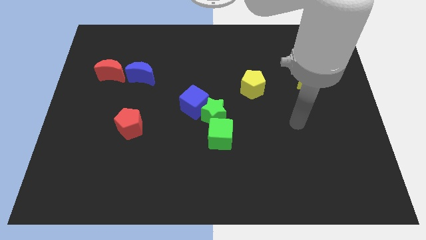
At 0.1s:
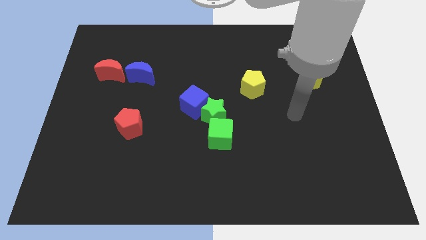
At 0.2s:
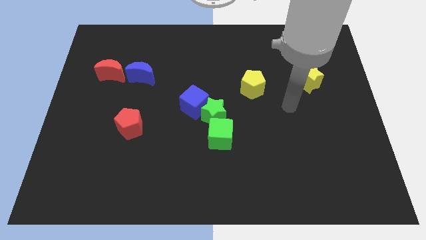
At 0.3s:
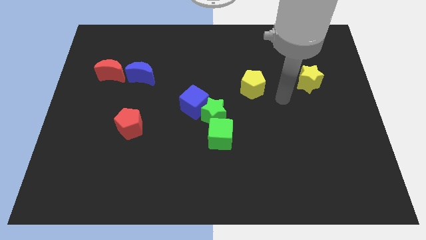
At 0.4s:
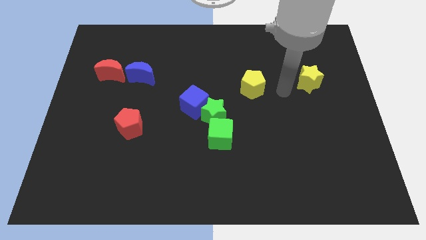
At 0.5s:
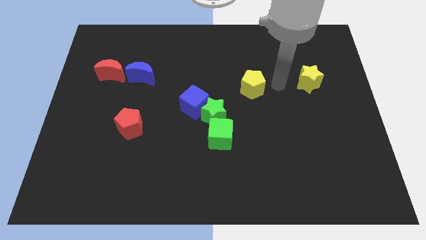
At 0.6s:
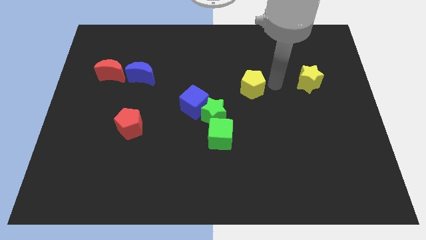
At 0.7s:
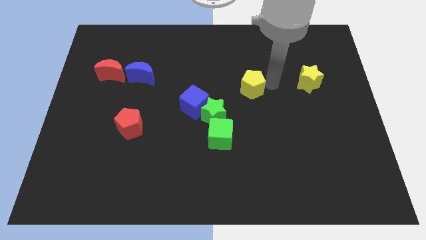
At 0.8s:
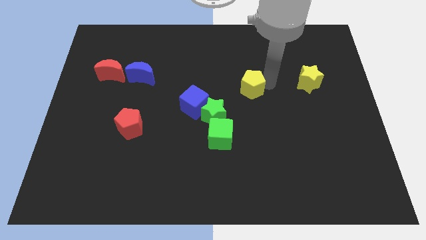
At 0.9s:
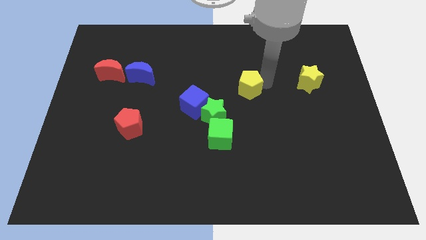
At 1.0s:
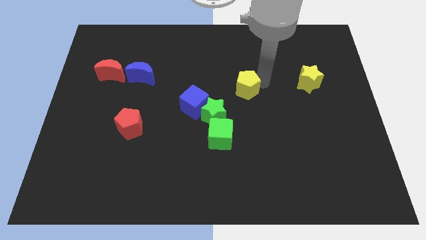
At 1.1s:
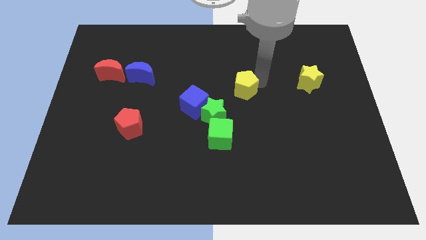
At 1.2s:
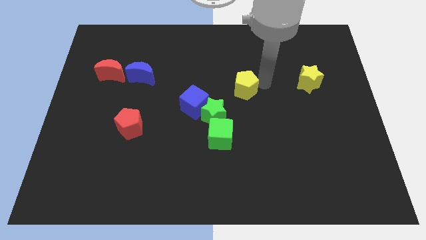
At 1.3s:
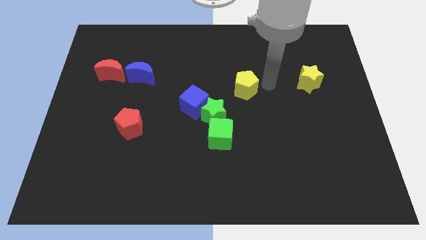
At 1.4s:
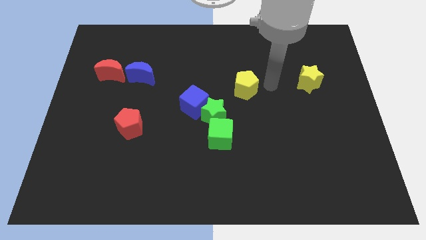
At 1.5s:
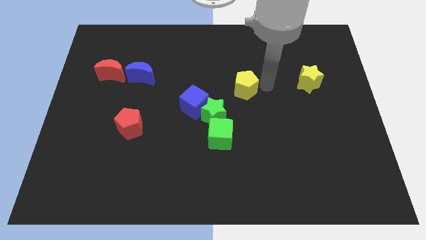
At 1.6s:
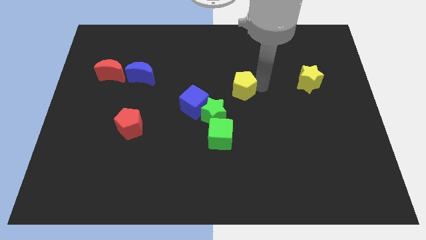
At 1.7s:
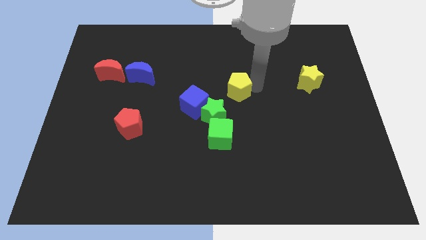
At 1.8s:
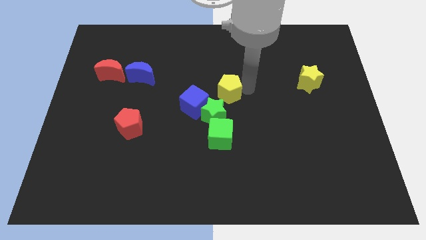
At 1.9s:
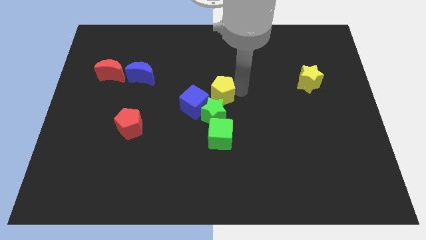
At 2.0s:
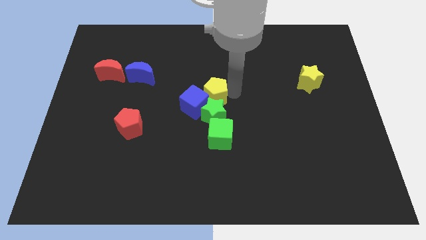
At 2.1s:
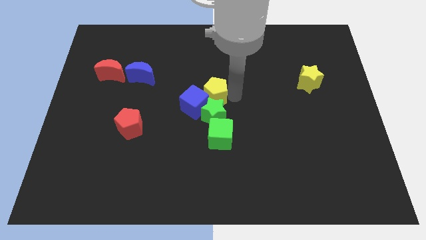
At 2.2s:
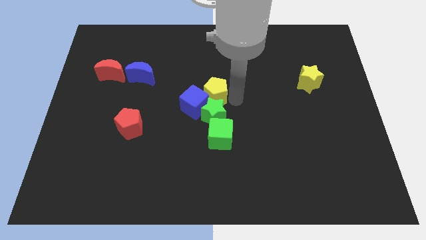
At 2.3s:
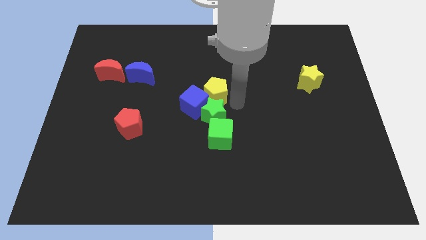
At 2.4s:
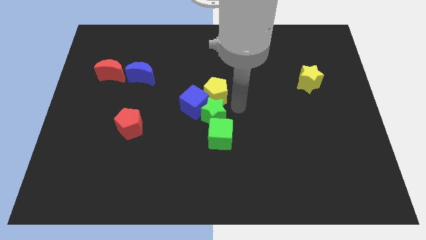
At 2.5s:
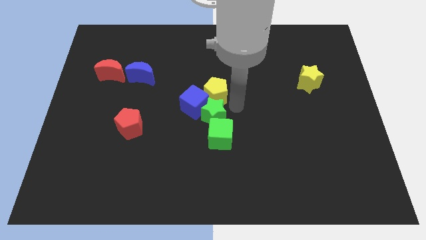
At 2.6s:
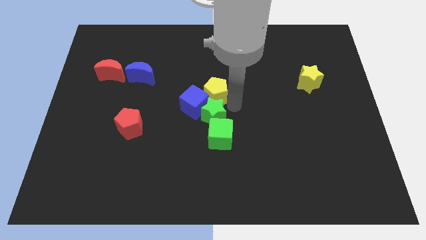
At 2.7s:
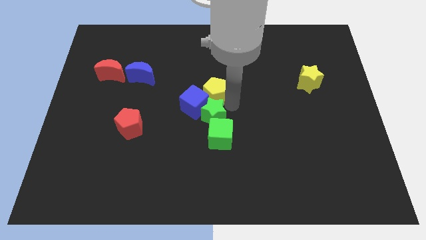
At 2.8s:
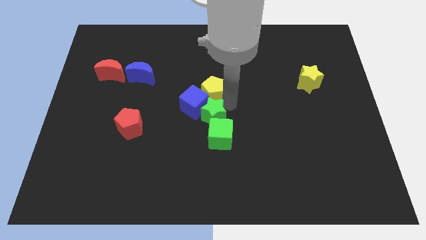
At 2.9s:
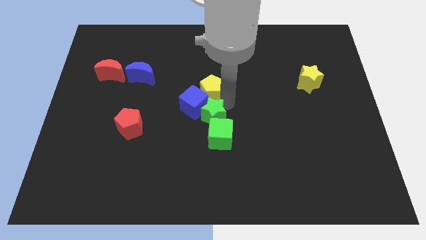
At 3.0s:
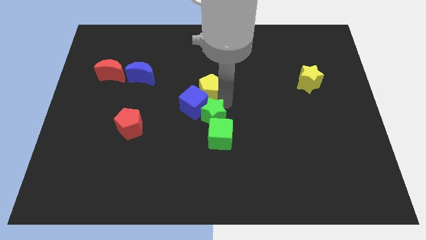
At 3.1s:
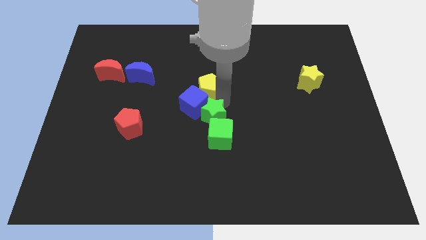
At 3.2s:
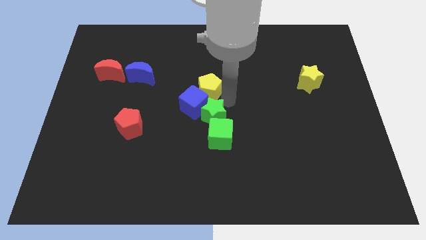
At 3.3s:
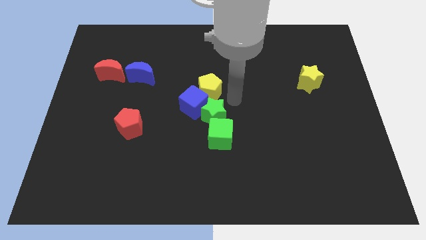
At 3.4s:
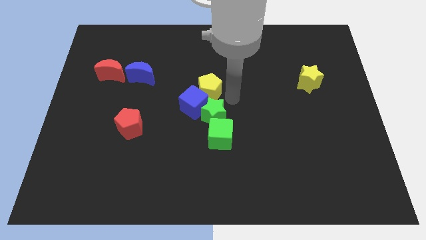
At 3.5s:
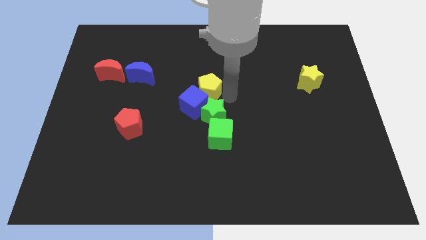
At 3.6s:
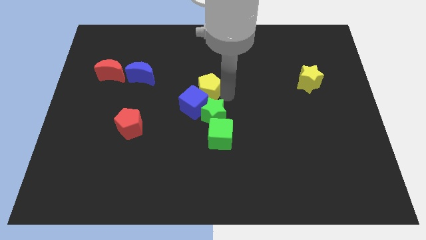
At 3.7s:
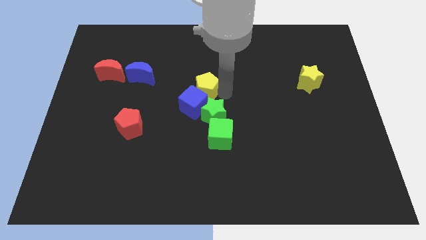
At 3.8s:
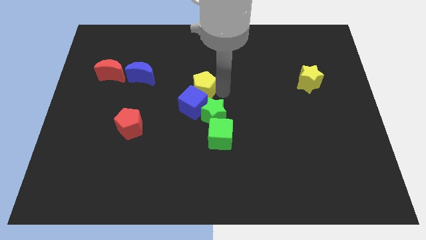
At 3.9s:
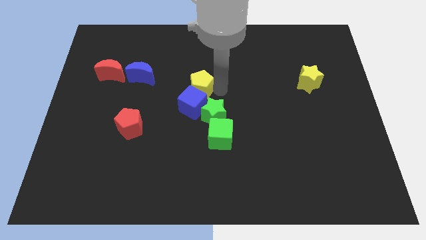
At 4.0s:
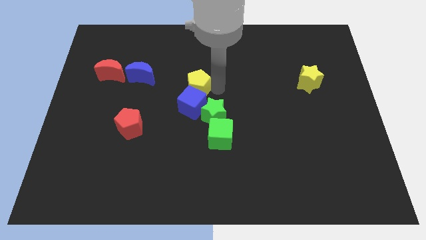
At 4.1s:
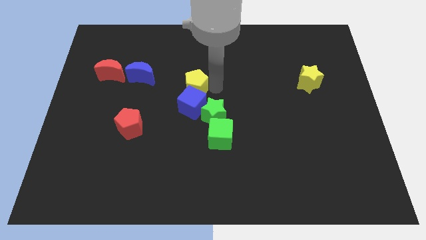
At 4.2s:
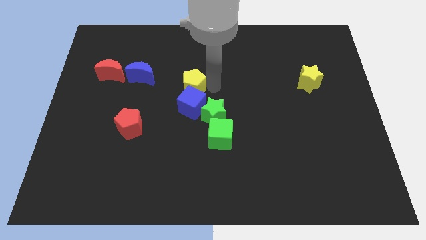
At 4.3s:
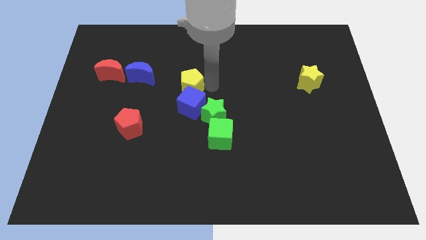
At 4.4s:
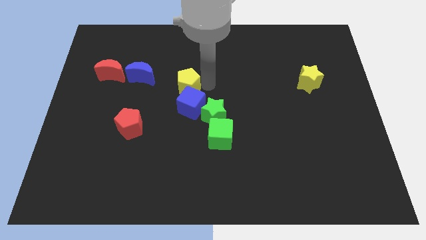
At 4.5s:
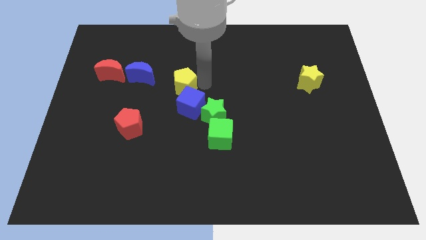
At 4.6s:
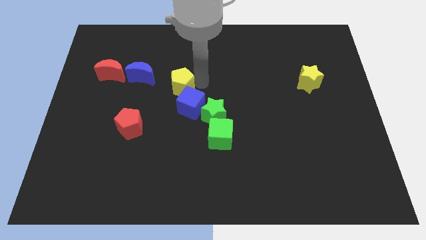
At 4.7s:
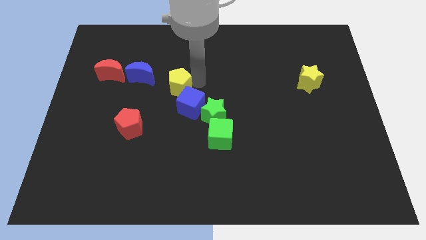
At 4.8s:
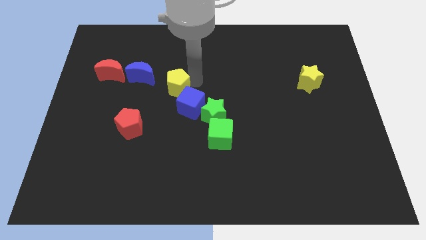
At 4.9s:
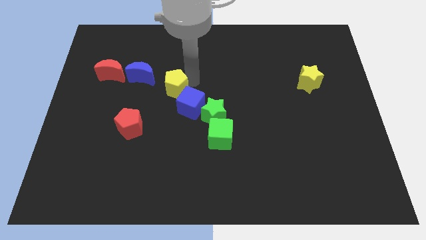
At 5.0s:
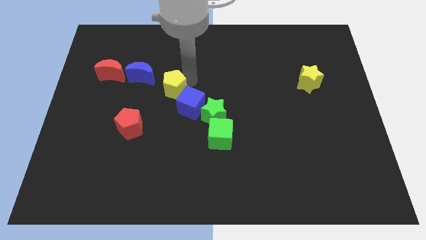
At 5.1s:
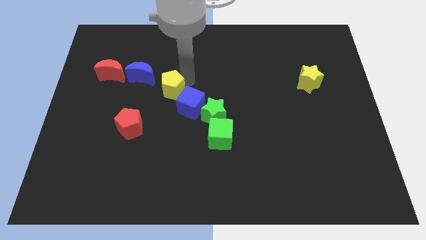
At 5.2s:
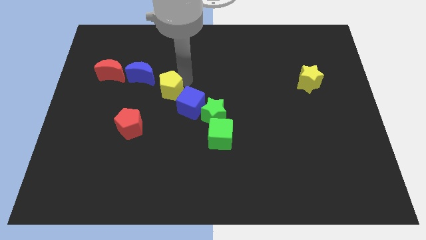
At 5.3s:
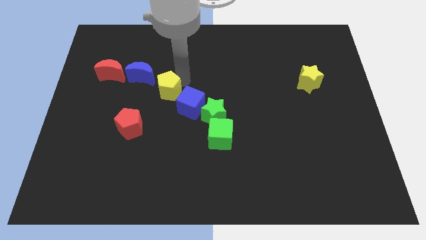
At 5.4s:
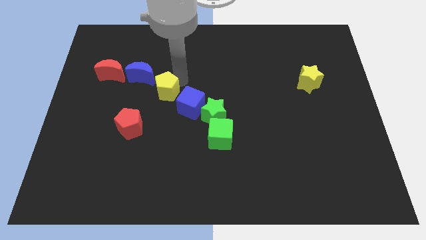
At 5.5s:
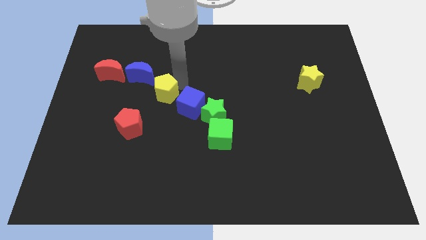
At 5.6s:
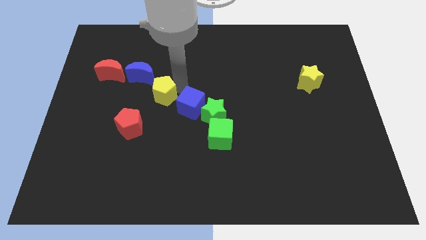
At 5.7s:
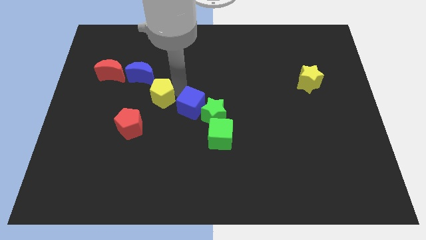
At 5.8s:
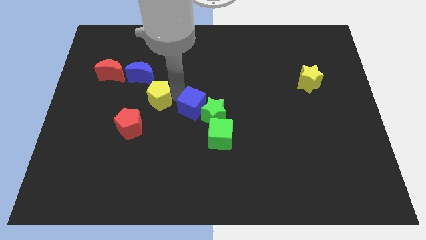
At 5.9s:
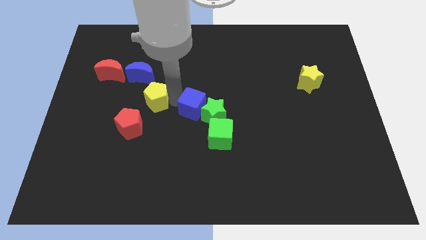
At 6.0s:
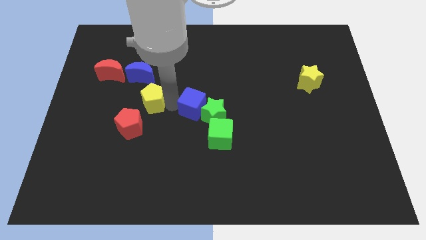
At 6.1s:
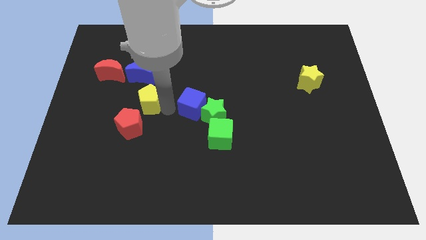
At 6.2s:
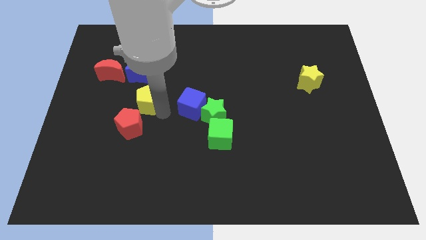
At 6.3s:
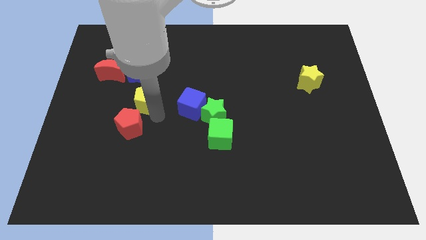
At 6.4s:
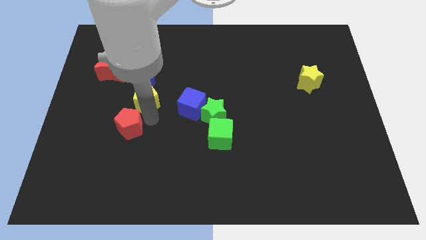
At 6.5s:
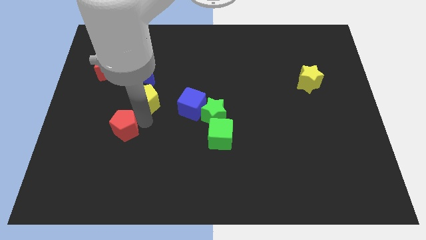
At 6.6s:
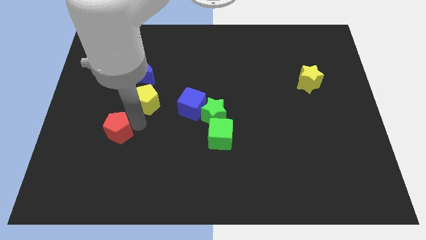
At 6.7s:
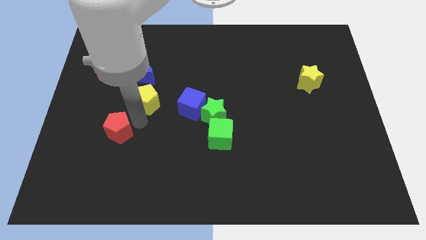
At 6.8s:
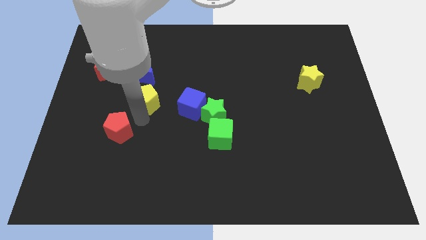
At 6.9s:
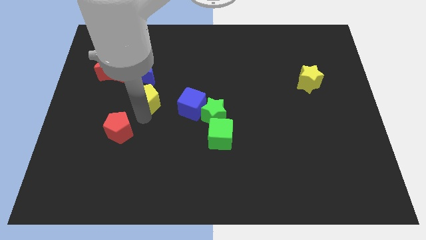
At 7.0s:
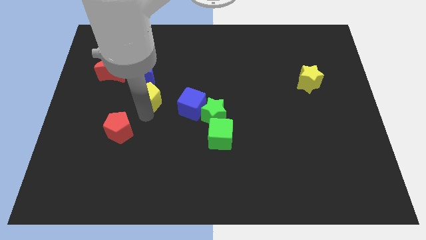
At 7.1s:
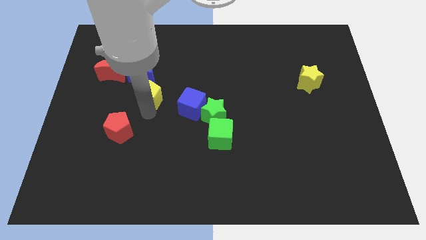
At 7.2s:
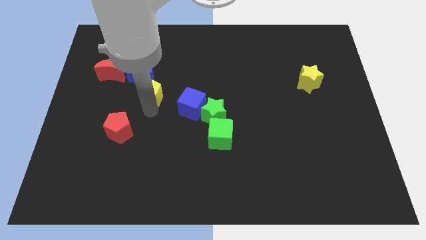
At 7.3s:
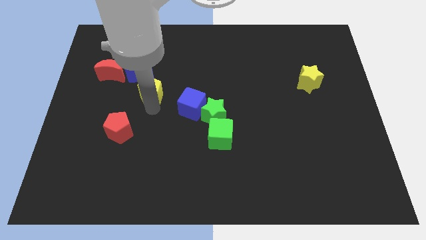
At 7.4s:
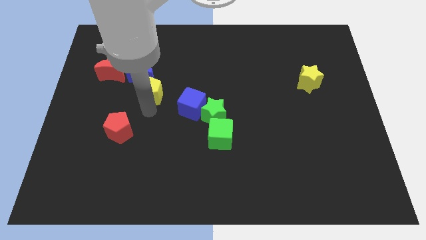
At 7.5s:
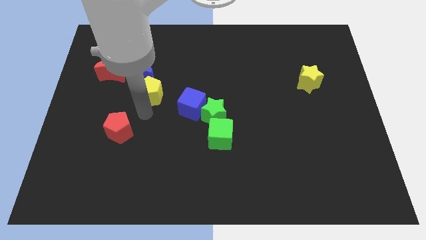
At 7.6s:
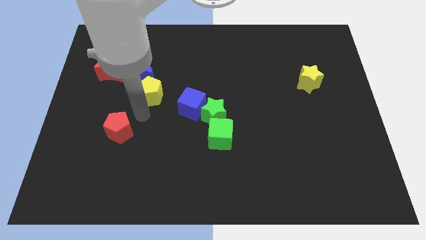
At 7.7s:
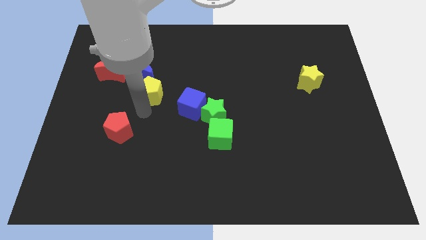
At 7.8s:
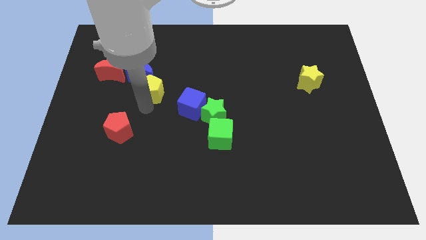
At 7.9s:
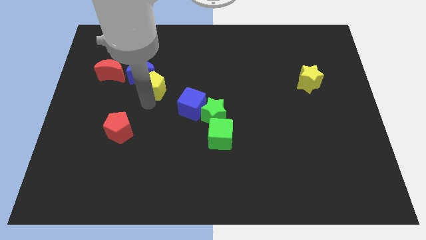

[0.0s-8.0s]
move the yellow pentagon towards the blue moon

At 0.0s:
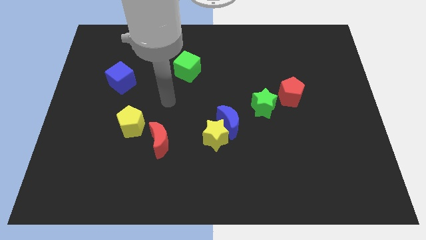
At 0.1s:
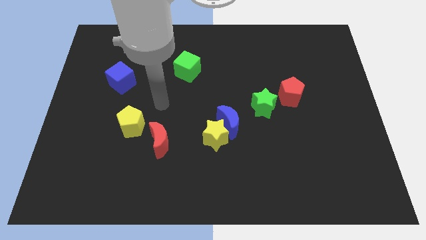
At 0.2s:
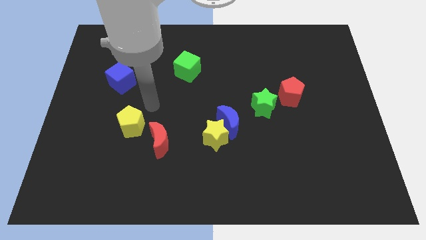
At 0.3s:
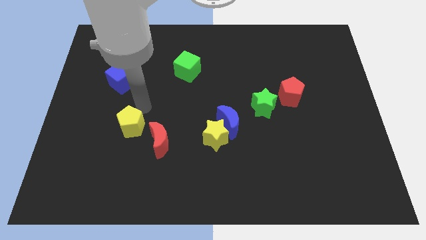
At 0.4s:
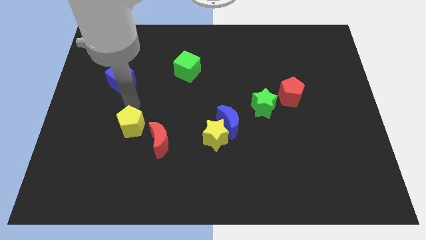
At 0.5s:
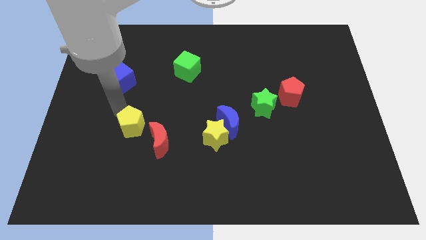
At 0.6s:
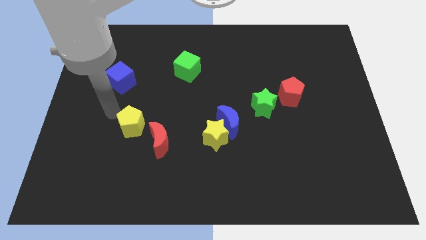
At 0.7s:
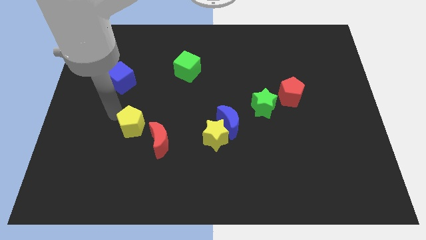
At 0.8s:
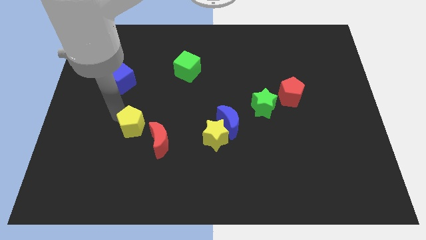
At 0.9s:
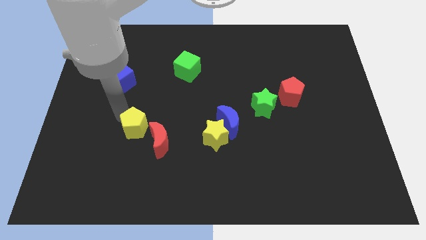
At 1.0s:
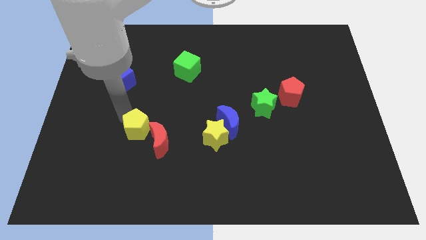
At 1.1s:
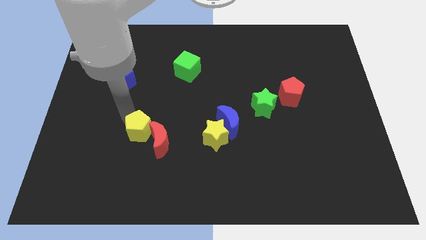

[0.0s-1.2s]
move the yellow pentagon towards the red moon
